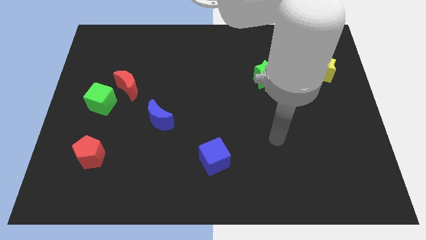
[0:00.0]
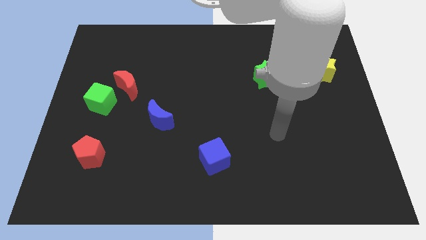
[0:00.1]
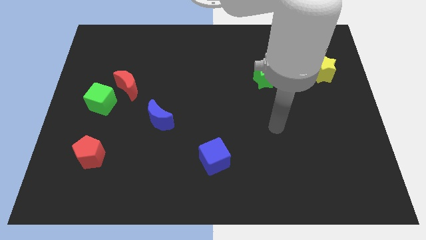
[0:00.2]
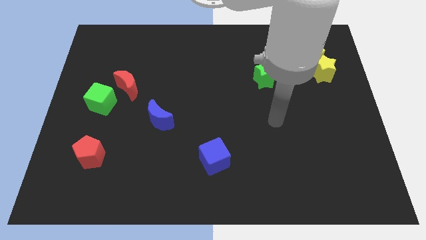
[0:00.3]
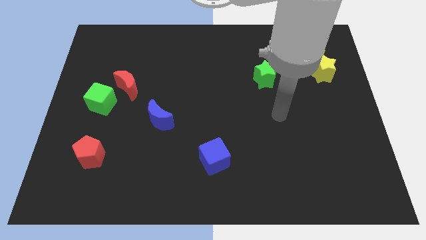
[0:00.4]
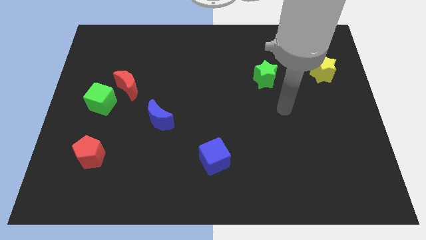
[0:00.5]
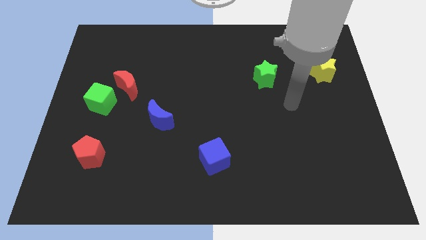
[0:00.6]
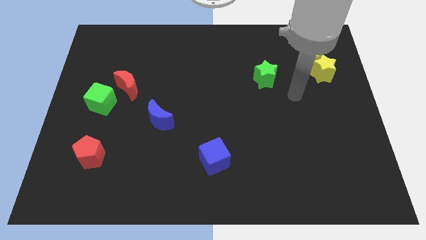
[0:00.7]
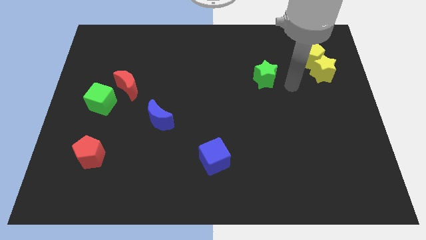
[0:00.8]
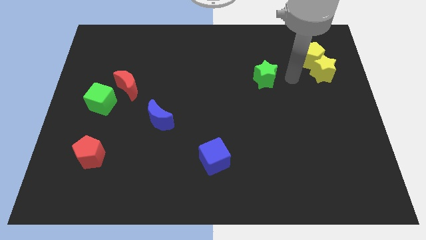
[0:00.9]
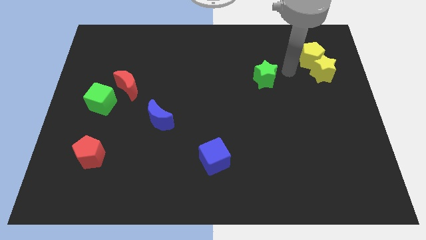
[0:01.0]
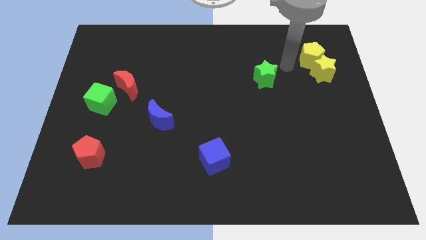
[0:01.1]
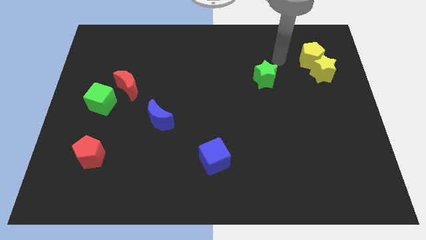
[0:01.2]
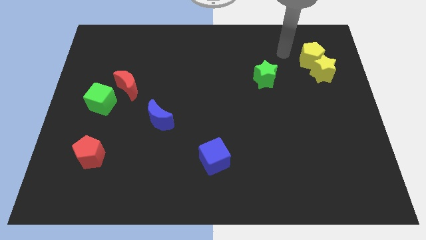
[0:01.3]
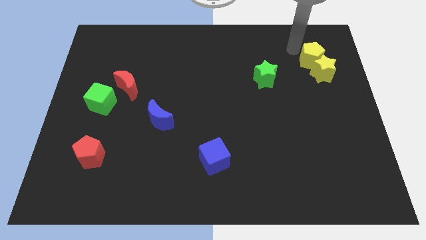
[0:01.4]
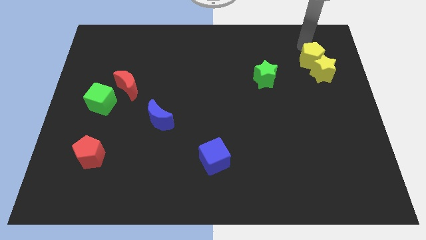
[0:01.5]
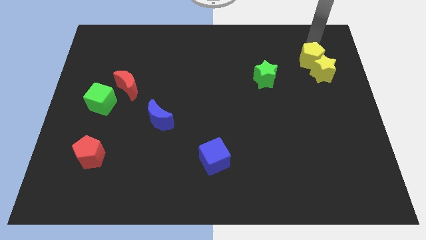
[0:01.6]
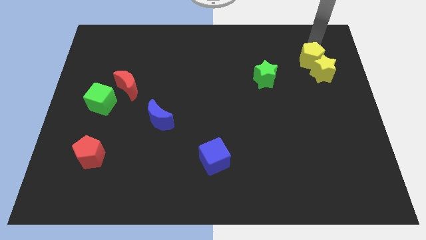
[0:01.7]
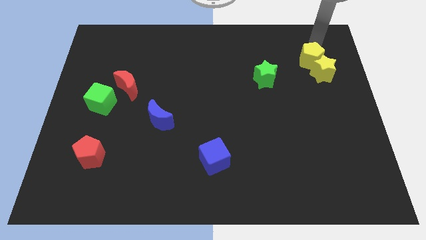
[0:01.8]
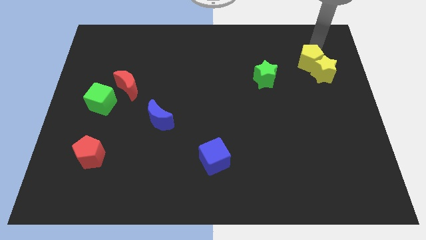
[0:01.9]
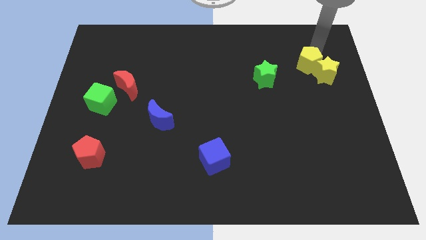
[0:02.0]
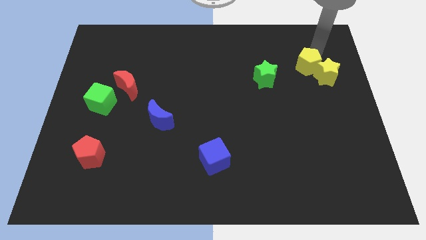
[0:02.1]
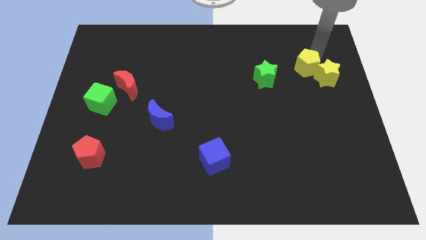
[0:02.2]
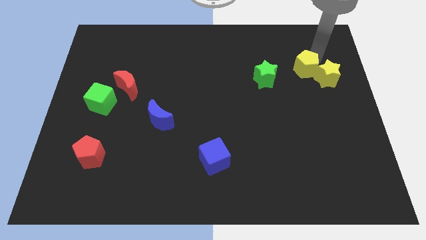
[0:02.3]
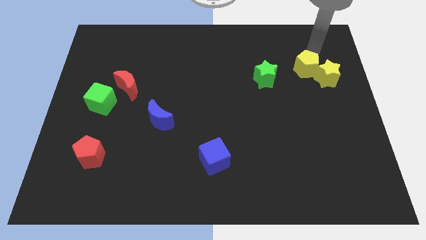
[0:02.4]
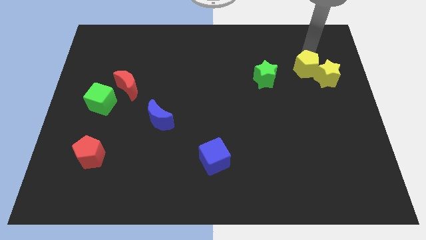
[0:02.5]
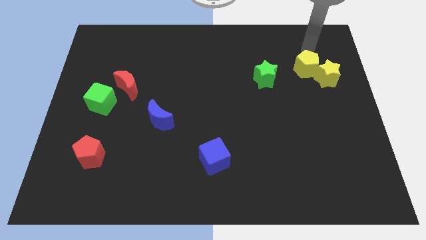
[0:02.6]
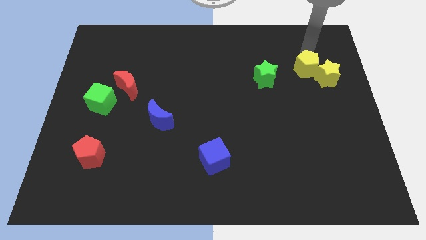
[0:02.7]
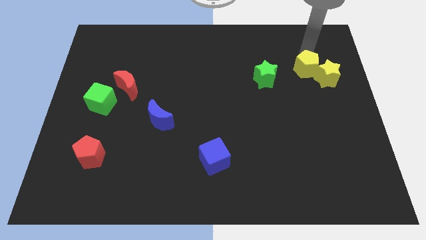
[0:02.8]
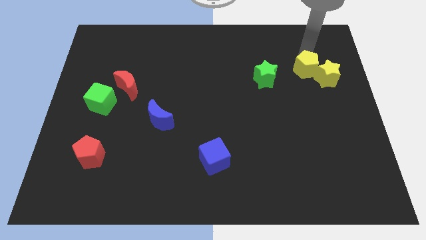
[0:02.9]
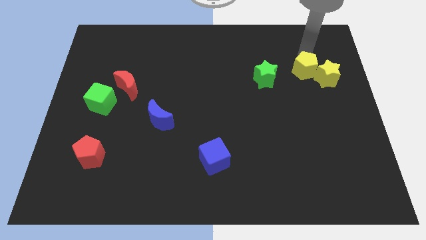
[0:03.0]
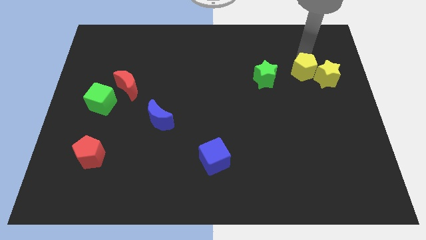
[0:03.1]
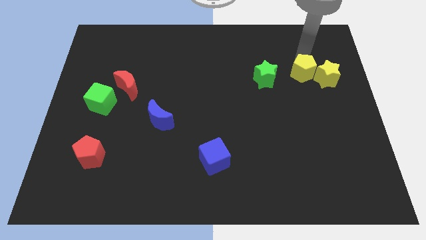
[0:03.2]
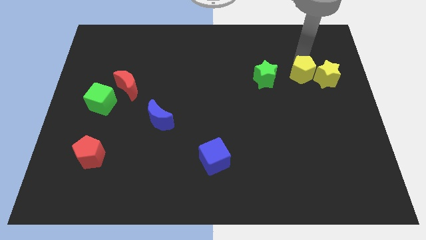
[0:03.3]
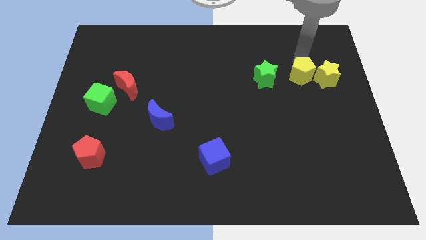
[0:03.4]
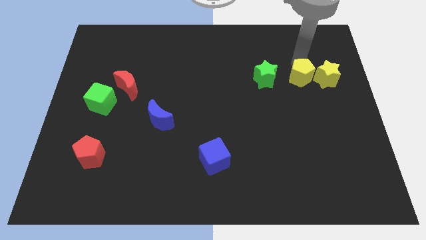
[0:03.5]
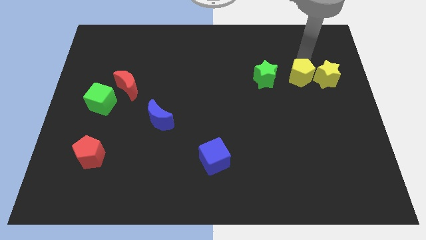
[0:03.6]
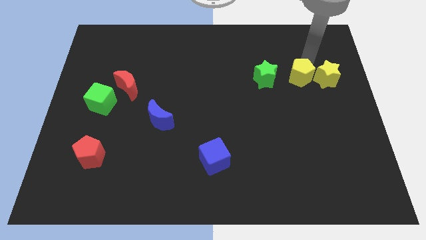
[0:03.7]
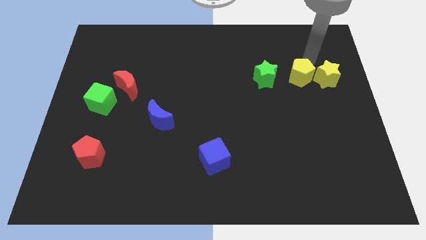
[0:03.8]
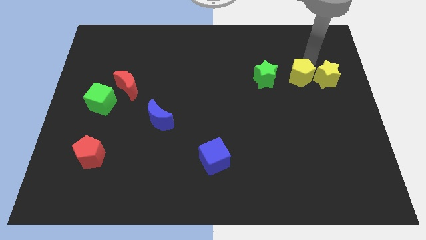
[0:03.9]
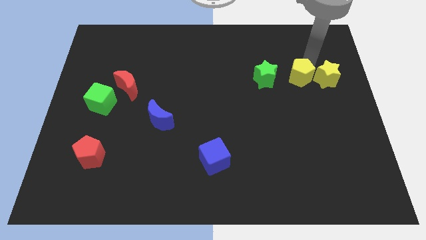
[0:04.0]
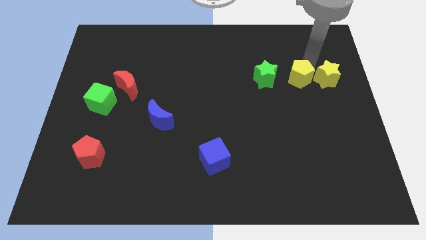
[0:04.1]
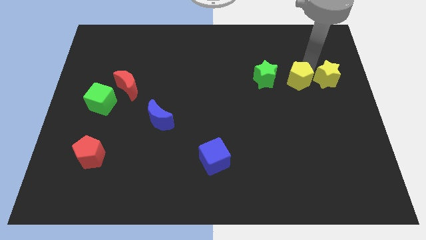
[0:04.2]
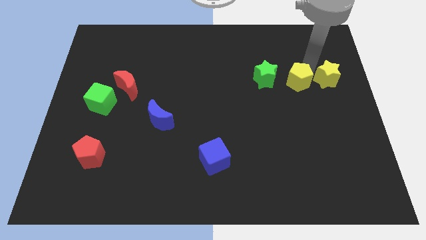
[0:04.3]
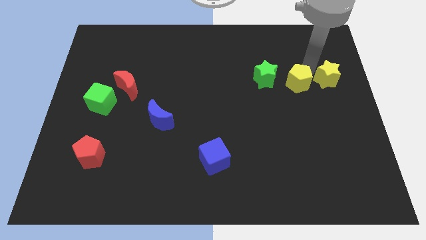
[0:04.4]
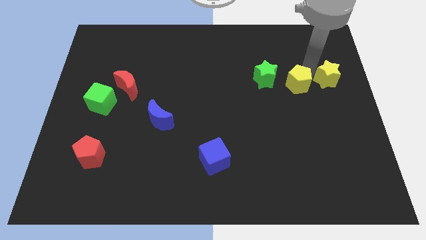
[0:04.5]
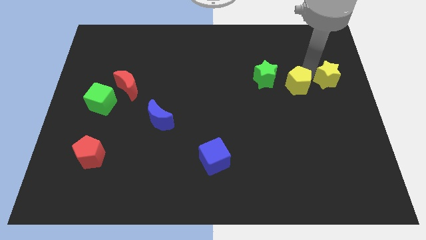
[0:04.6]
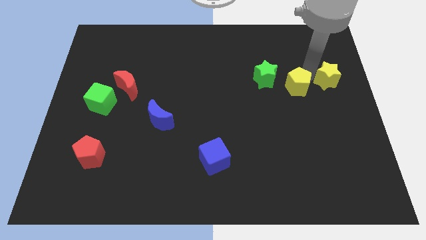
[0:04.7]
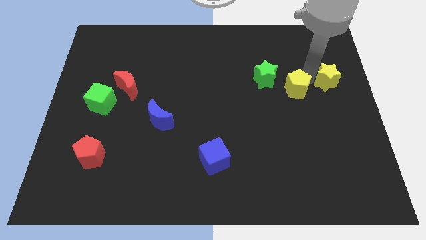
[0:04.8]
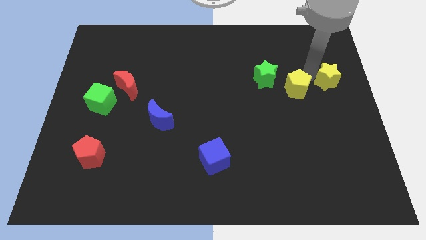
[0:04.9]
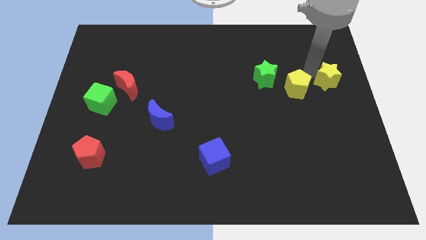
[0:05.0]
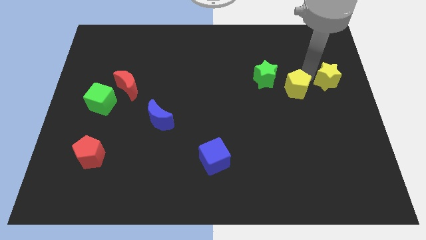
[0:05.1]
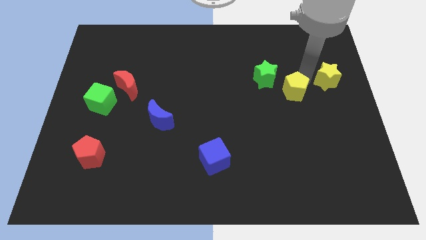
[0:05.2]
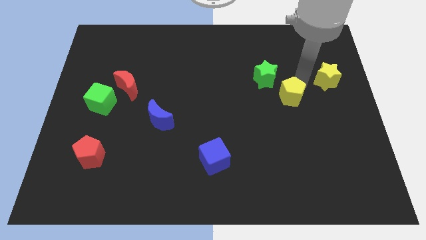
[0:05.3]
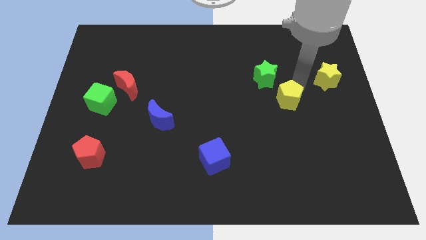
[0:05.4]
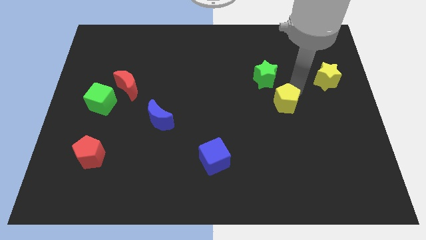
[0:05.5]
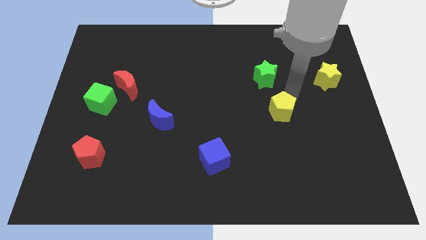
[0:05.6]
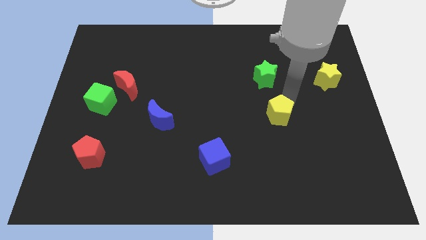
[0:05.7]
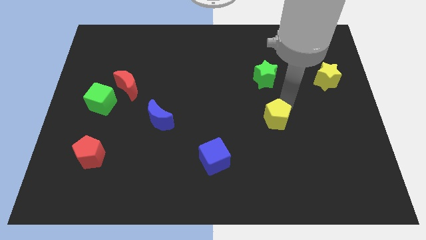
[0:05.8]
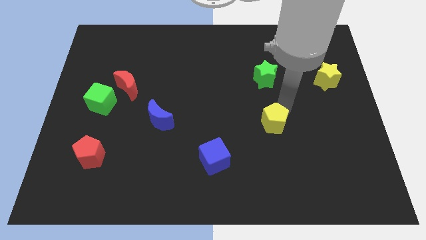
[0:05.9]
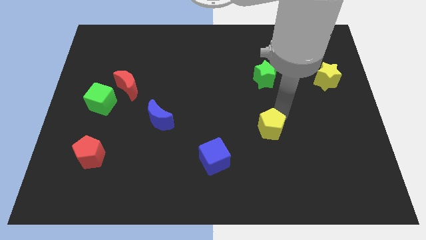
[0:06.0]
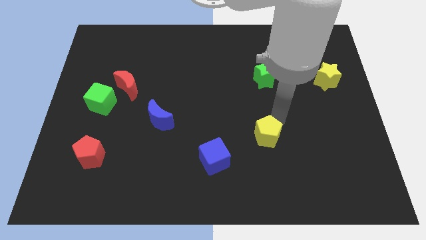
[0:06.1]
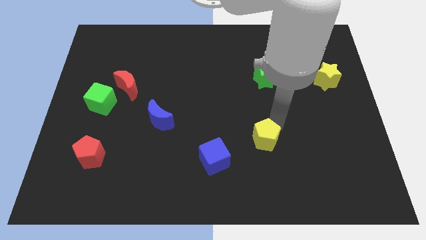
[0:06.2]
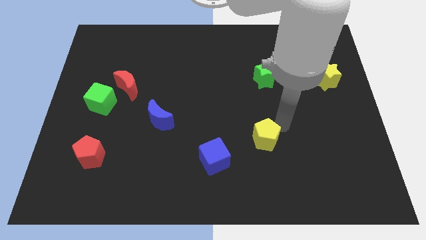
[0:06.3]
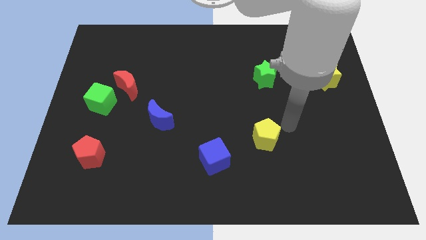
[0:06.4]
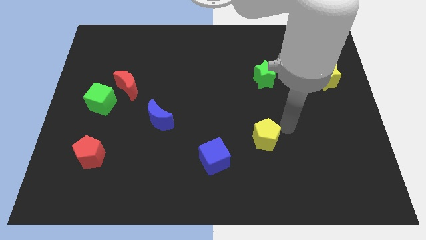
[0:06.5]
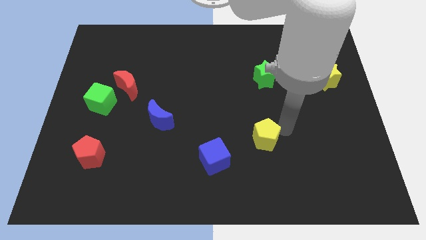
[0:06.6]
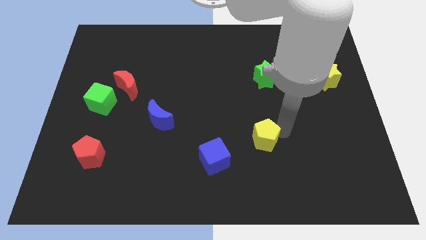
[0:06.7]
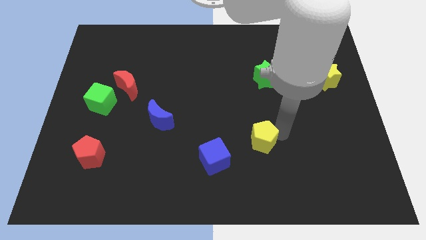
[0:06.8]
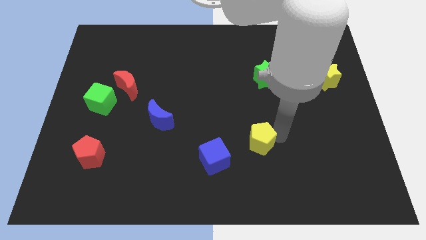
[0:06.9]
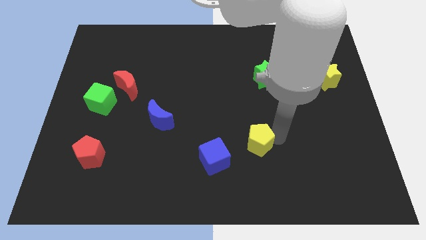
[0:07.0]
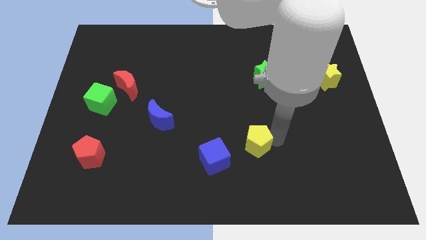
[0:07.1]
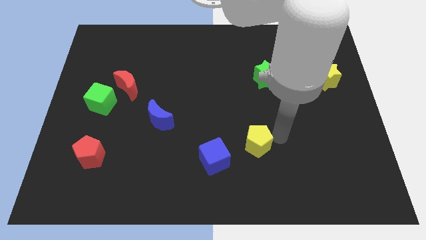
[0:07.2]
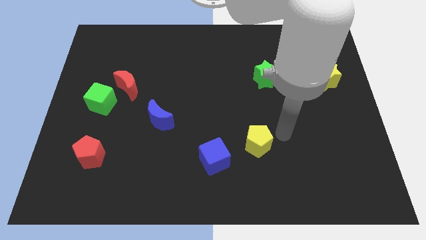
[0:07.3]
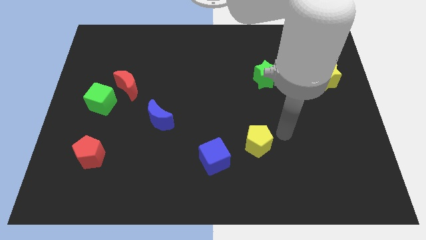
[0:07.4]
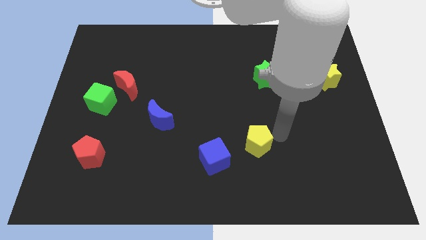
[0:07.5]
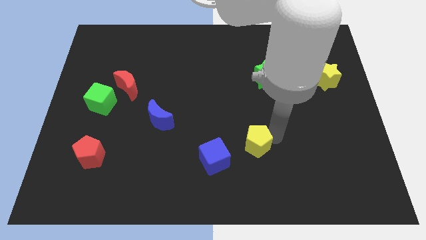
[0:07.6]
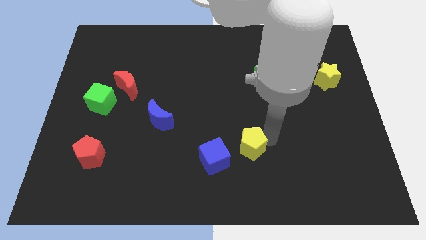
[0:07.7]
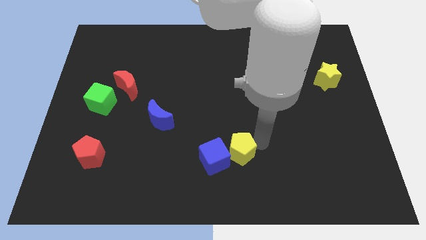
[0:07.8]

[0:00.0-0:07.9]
put the yellow pentagon towards the blue cube
